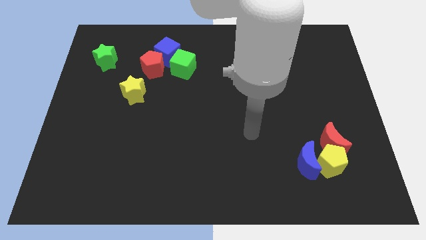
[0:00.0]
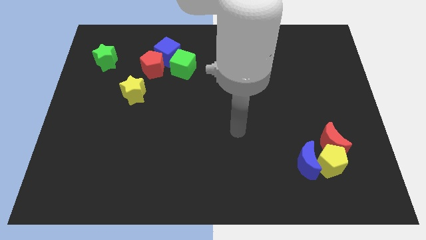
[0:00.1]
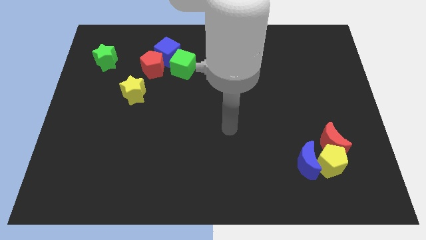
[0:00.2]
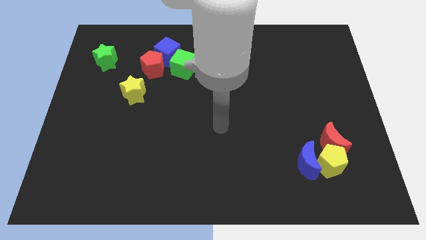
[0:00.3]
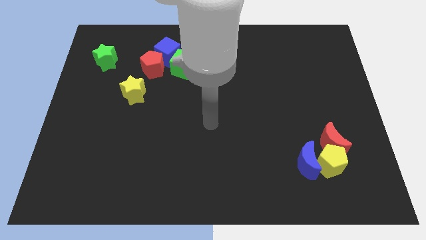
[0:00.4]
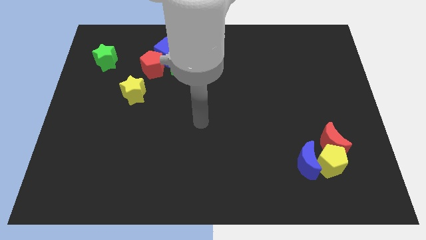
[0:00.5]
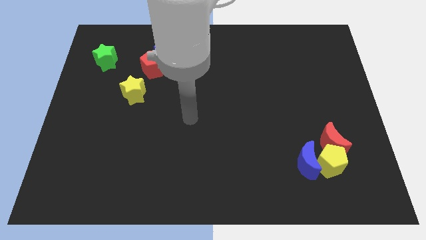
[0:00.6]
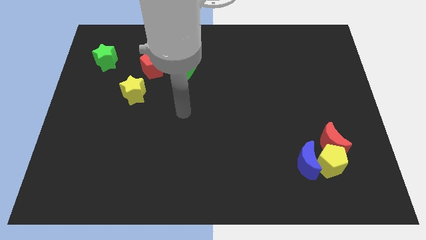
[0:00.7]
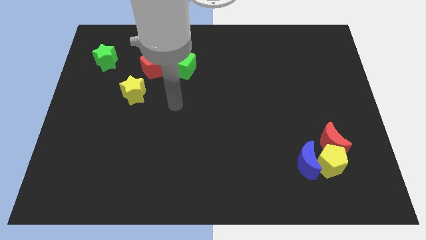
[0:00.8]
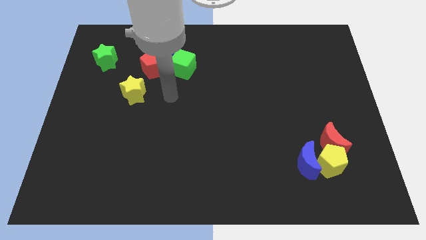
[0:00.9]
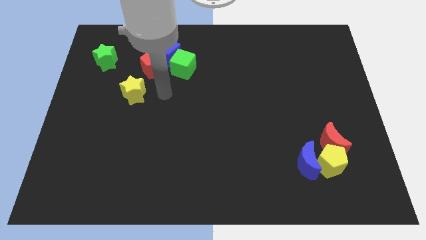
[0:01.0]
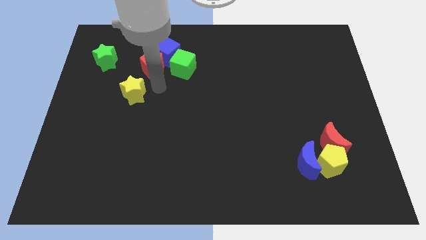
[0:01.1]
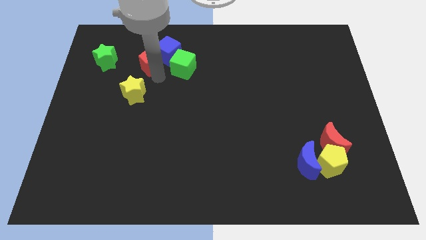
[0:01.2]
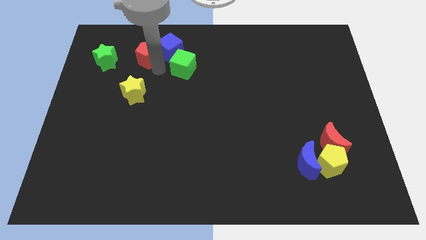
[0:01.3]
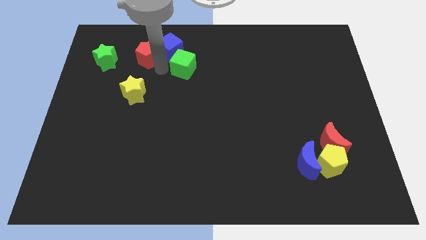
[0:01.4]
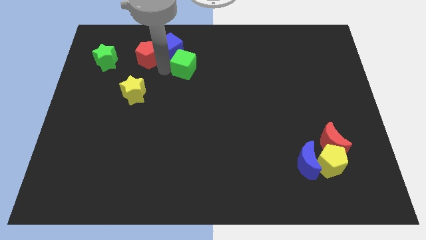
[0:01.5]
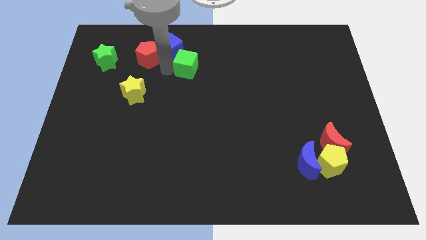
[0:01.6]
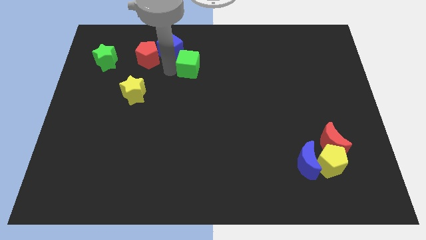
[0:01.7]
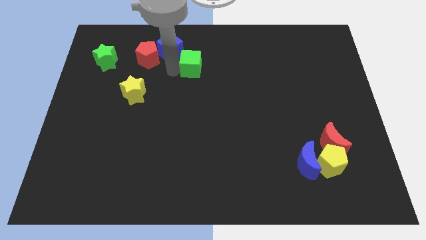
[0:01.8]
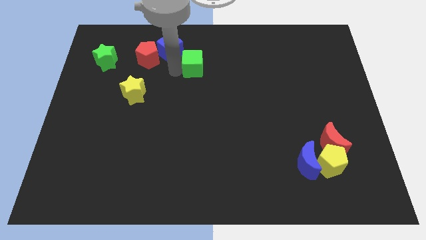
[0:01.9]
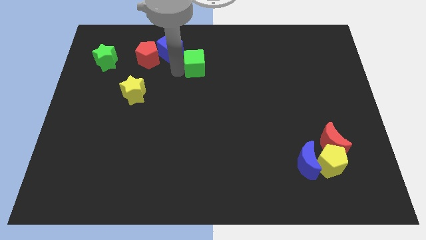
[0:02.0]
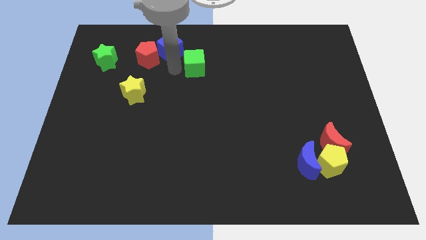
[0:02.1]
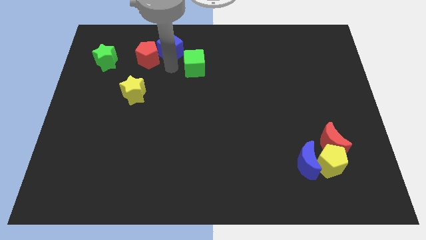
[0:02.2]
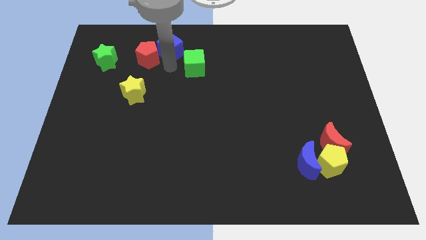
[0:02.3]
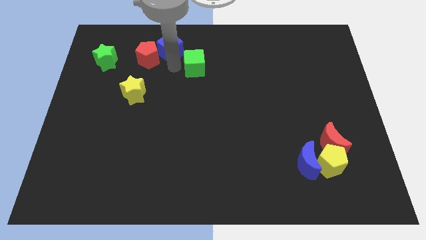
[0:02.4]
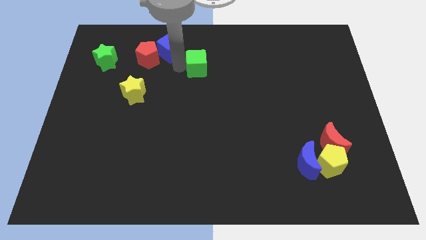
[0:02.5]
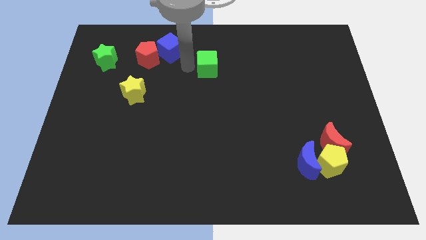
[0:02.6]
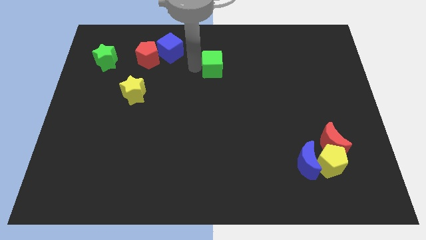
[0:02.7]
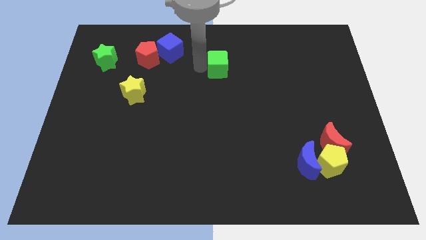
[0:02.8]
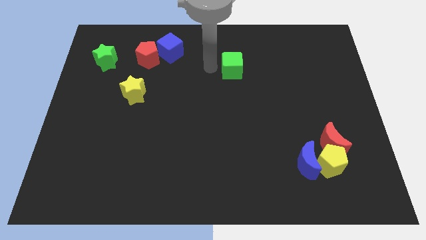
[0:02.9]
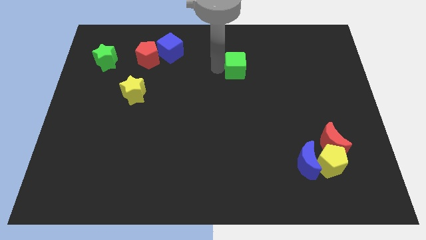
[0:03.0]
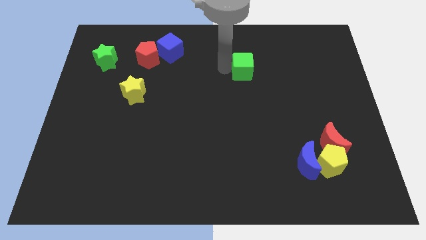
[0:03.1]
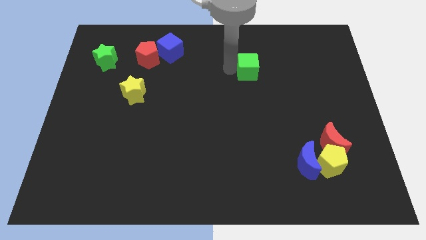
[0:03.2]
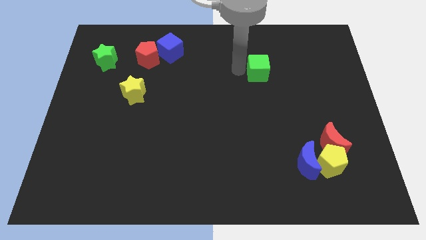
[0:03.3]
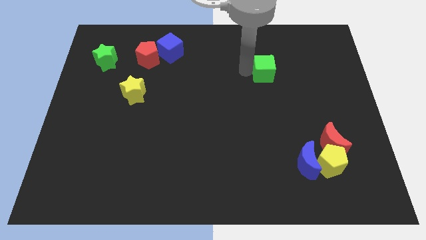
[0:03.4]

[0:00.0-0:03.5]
push the green cube to the right

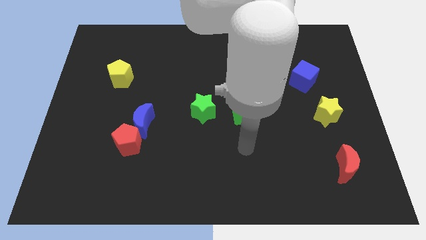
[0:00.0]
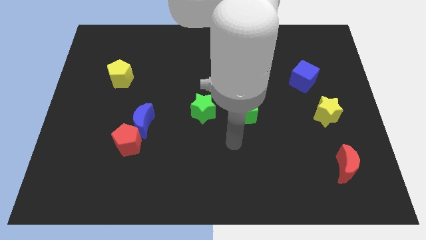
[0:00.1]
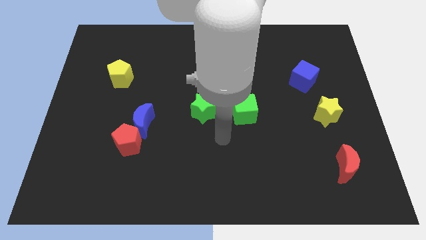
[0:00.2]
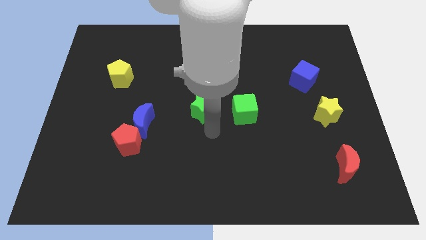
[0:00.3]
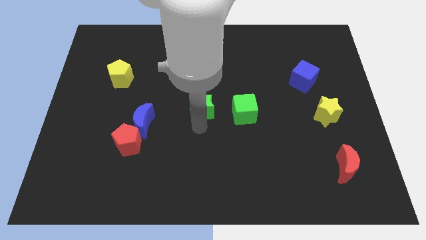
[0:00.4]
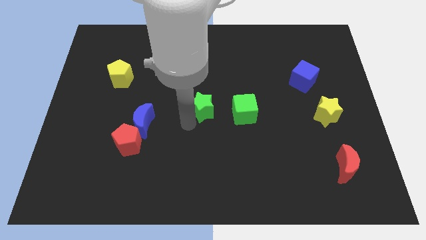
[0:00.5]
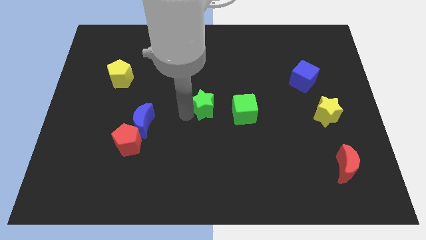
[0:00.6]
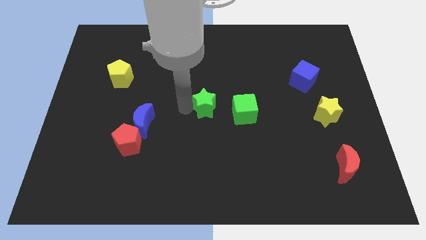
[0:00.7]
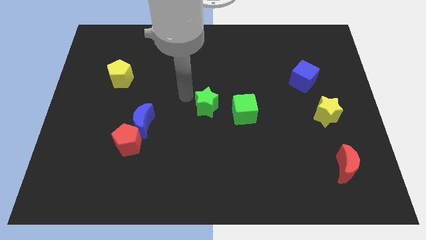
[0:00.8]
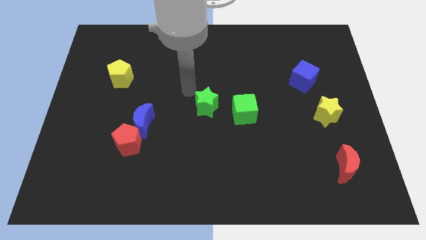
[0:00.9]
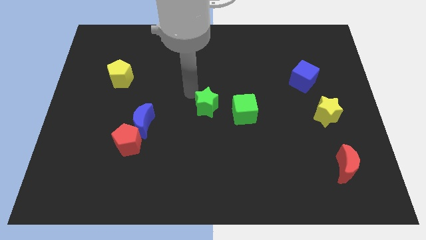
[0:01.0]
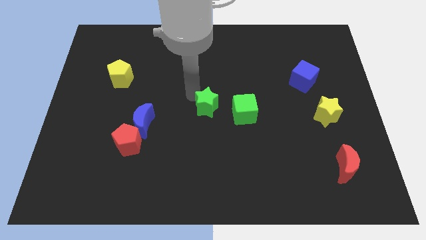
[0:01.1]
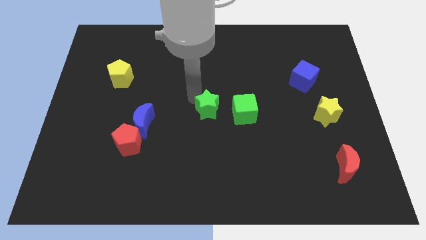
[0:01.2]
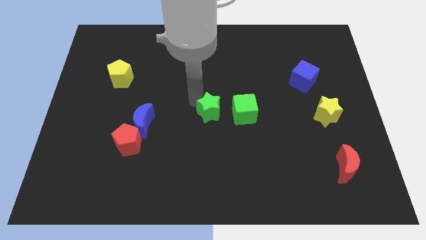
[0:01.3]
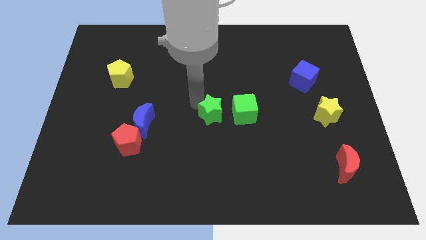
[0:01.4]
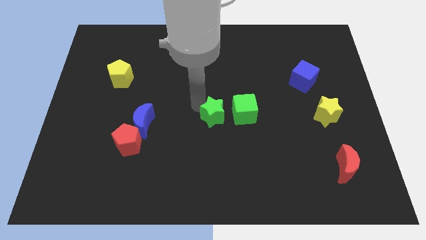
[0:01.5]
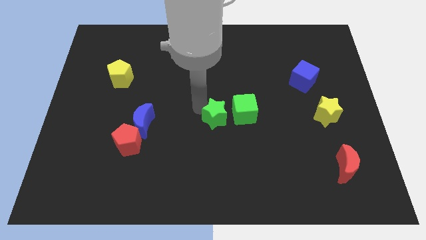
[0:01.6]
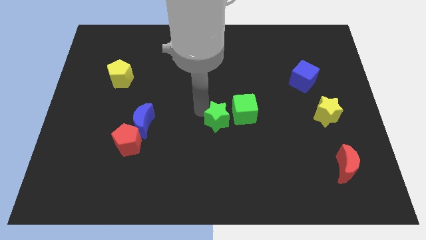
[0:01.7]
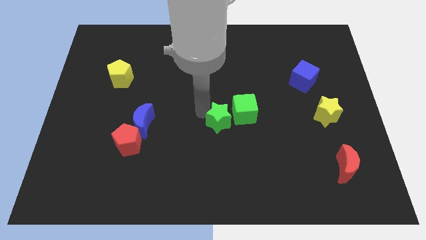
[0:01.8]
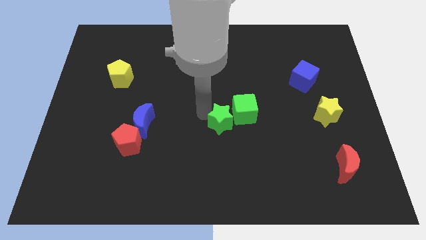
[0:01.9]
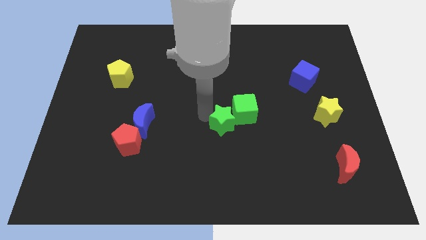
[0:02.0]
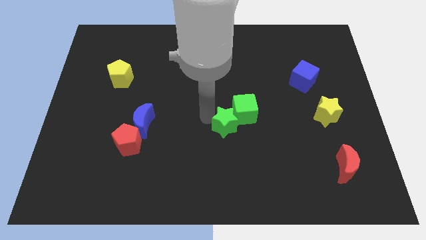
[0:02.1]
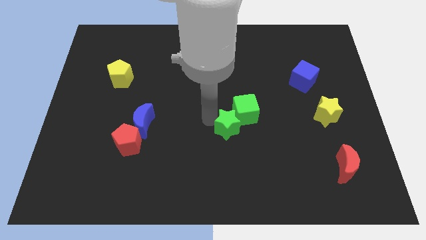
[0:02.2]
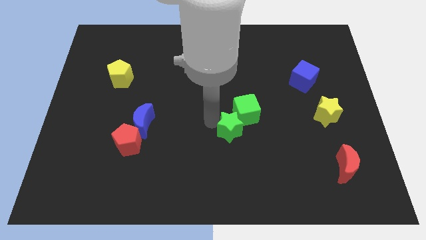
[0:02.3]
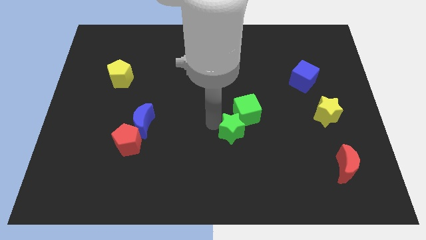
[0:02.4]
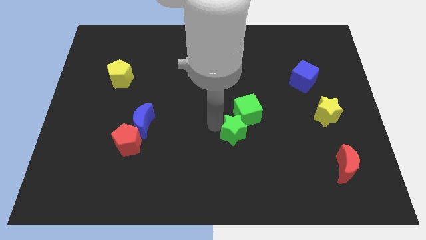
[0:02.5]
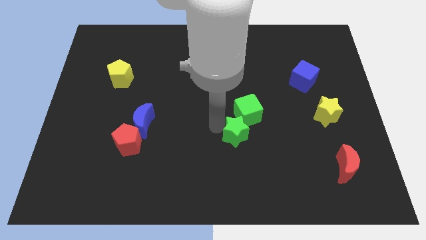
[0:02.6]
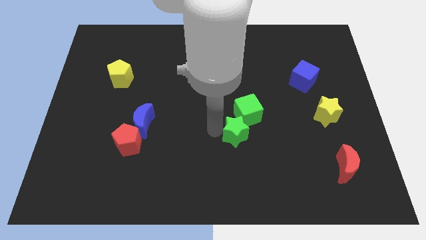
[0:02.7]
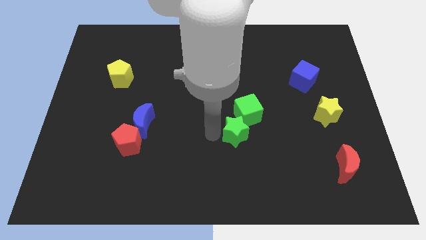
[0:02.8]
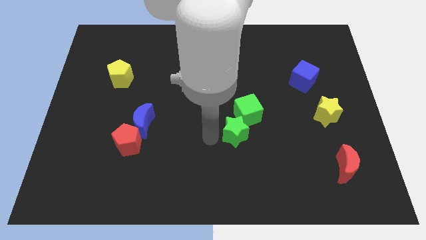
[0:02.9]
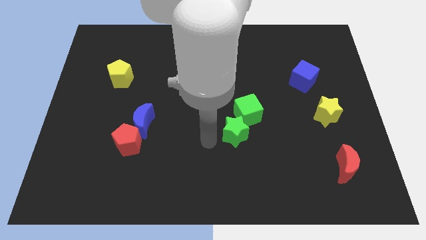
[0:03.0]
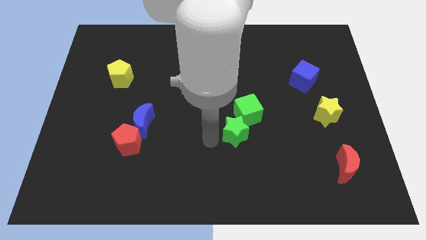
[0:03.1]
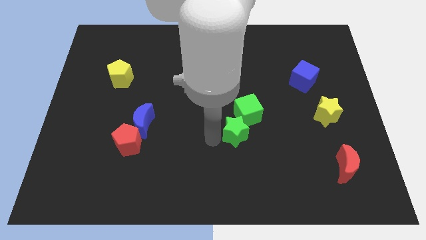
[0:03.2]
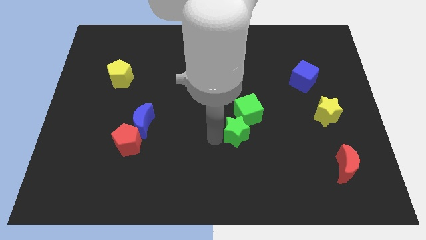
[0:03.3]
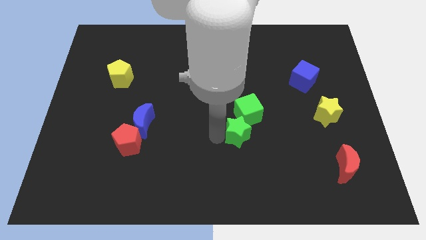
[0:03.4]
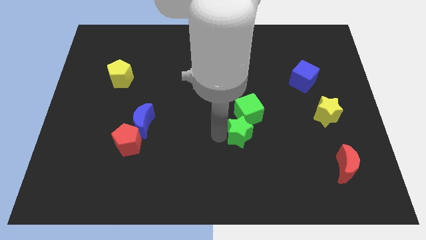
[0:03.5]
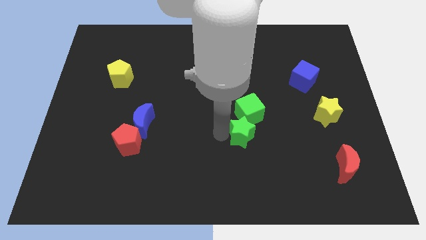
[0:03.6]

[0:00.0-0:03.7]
push the green star a little bit right

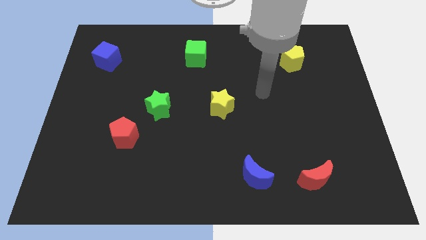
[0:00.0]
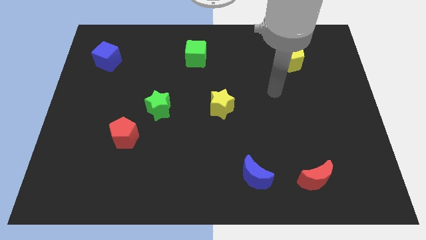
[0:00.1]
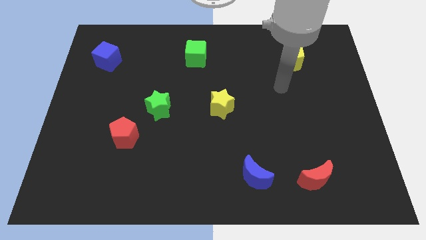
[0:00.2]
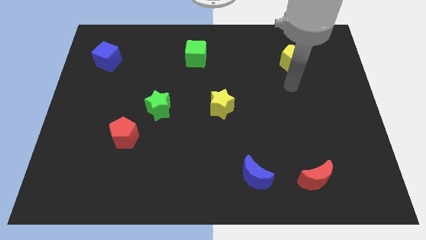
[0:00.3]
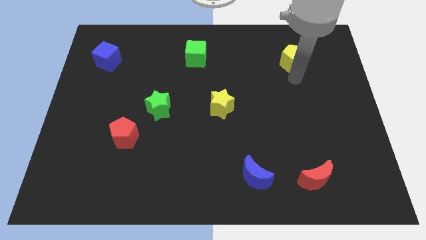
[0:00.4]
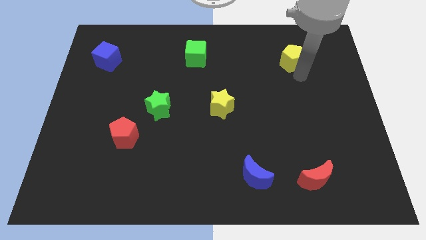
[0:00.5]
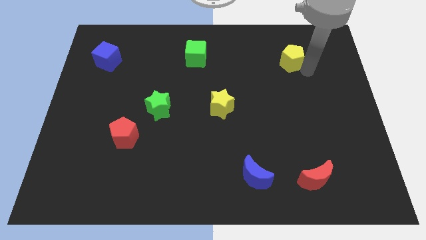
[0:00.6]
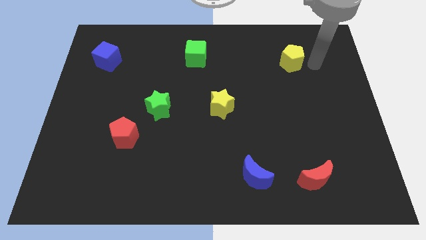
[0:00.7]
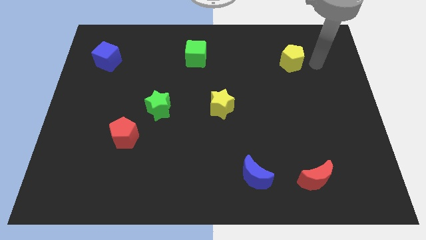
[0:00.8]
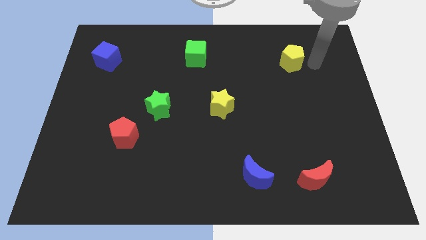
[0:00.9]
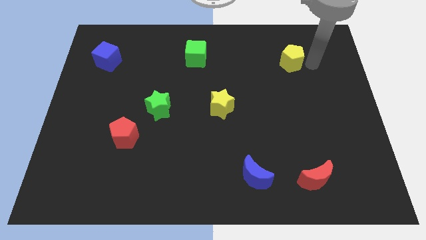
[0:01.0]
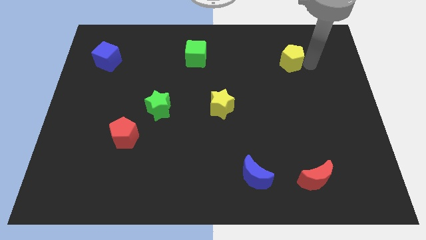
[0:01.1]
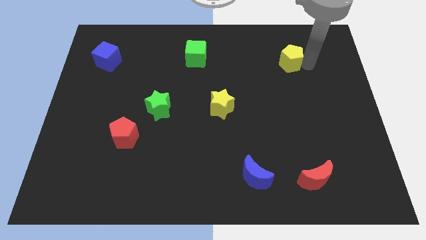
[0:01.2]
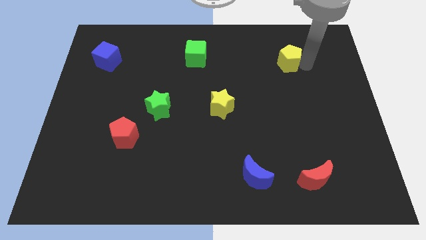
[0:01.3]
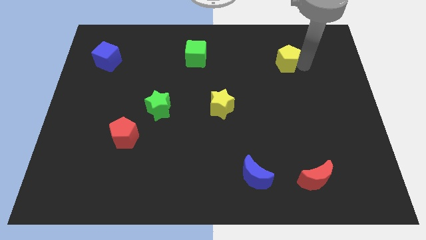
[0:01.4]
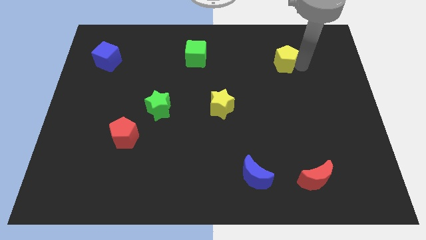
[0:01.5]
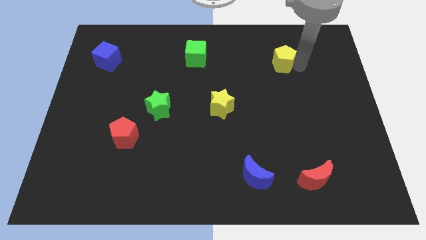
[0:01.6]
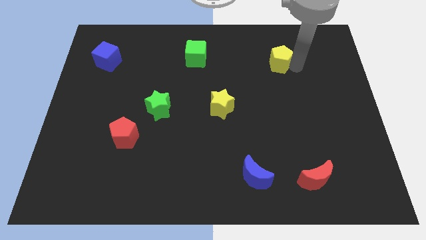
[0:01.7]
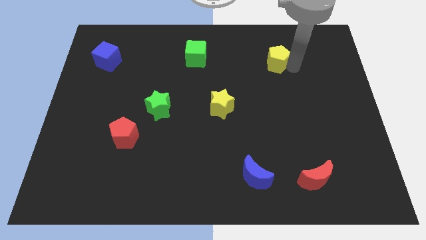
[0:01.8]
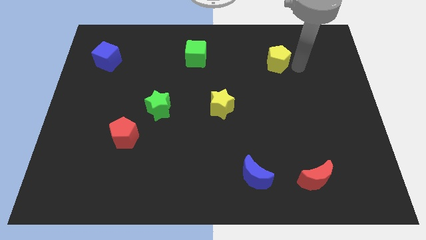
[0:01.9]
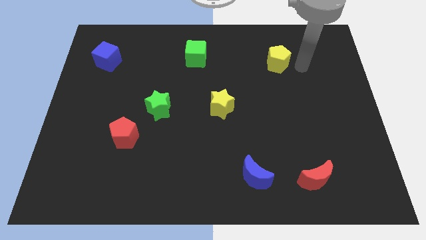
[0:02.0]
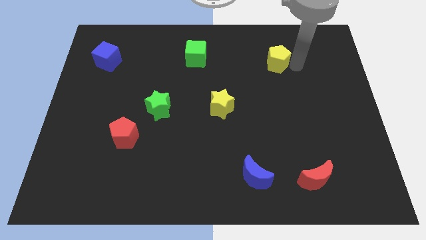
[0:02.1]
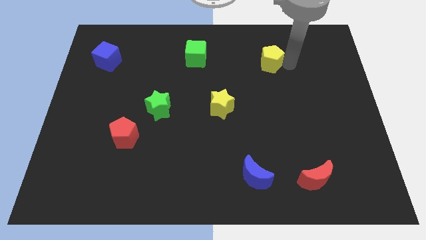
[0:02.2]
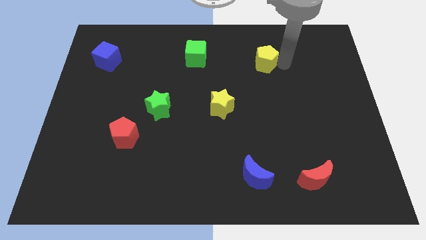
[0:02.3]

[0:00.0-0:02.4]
slightly push the yellow pentagon left
